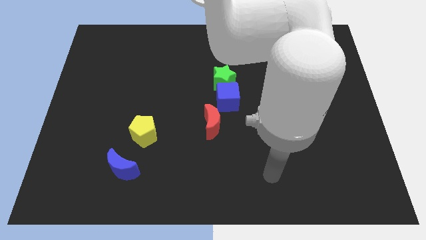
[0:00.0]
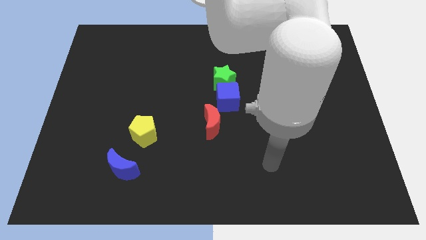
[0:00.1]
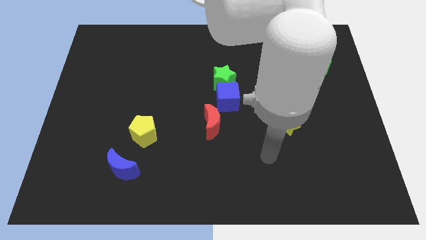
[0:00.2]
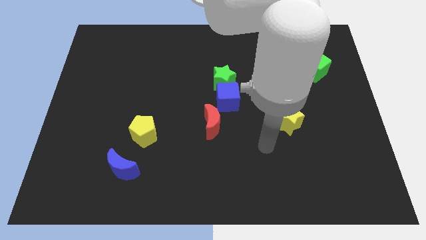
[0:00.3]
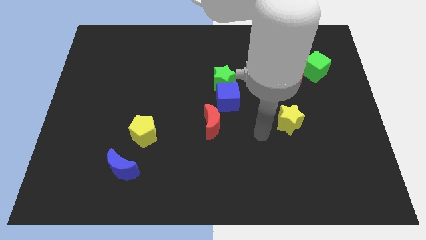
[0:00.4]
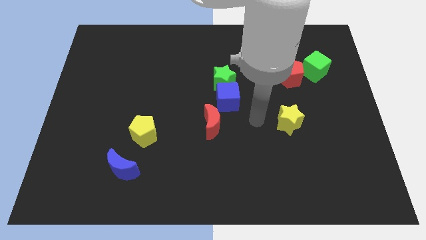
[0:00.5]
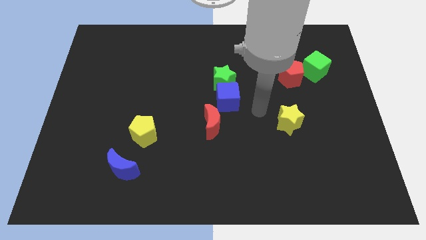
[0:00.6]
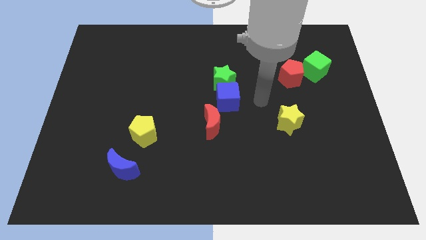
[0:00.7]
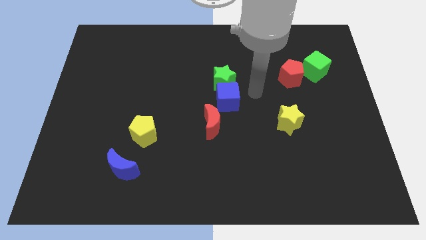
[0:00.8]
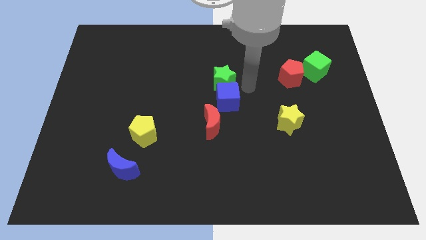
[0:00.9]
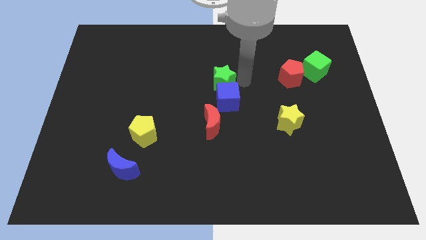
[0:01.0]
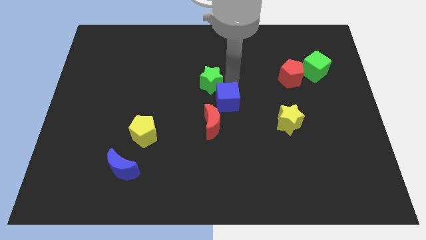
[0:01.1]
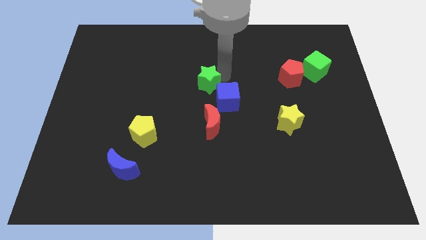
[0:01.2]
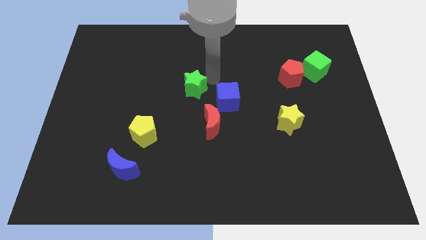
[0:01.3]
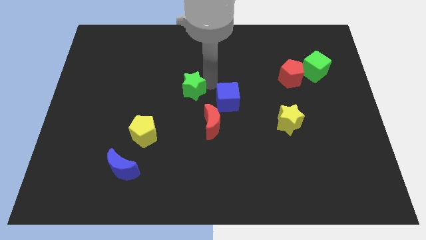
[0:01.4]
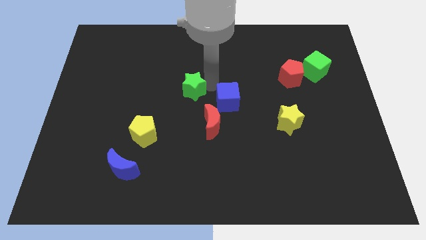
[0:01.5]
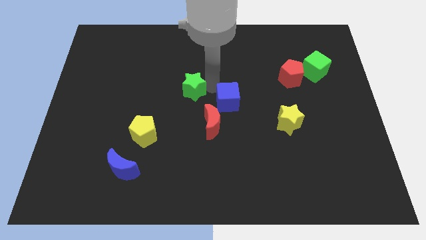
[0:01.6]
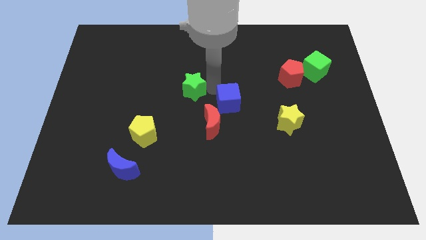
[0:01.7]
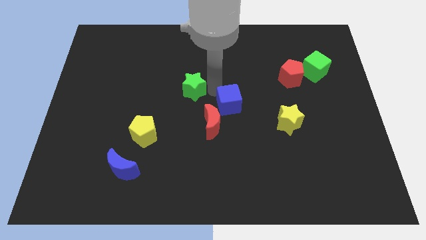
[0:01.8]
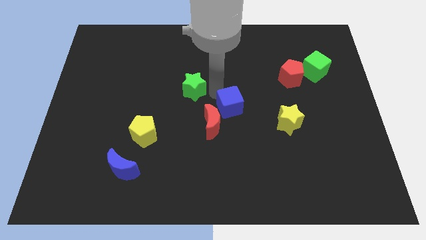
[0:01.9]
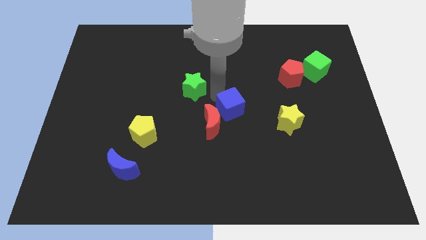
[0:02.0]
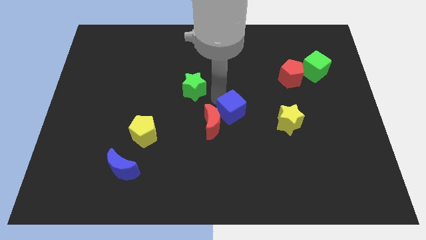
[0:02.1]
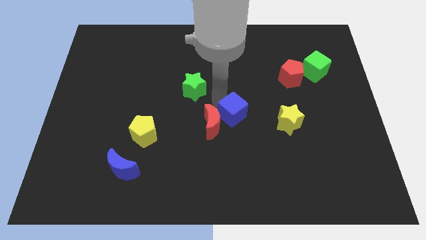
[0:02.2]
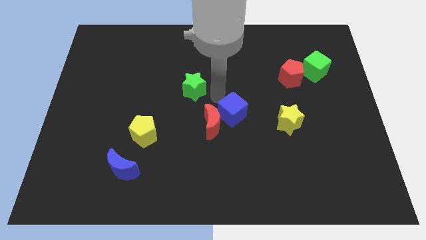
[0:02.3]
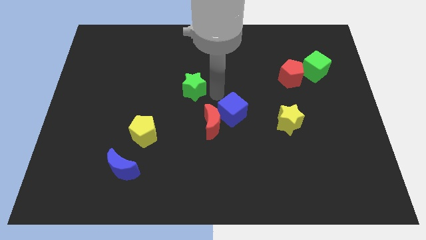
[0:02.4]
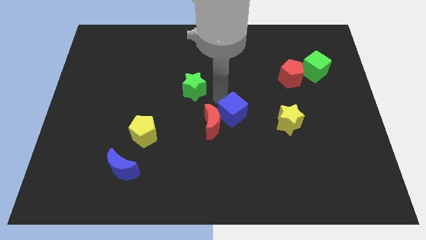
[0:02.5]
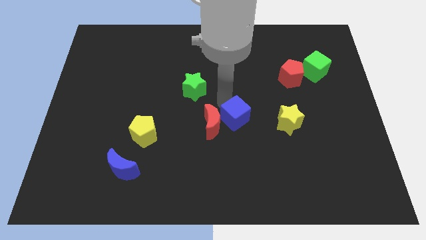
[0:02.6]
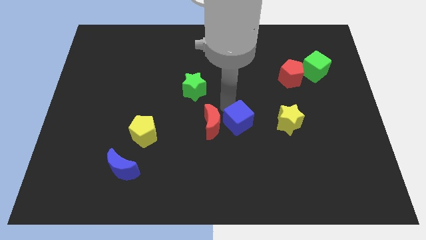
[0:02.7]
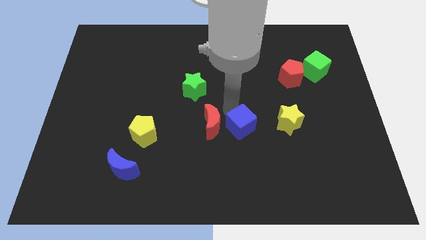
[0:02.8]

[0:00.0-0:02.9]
push the blue cube a little bit down and then right

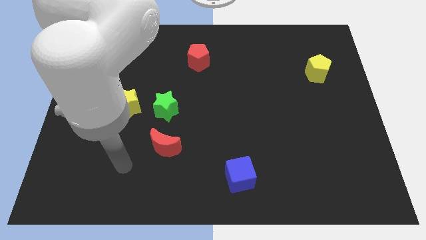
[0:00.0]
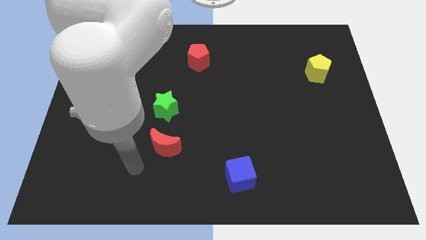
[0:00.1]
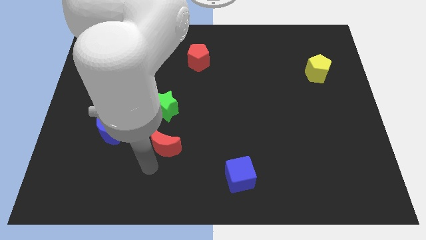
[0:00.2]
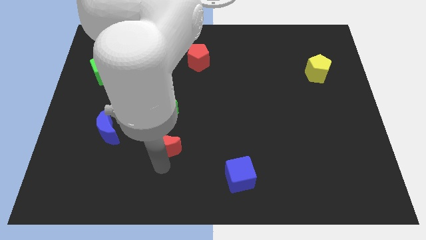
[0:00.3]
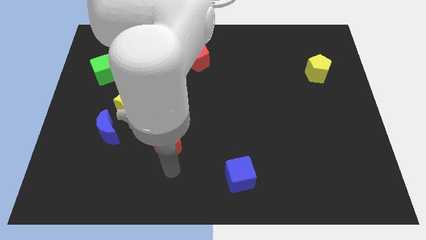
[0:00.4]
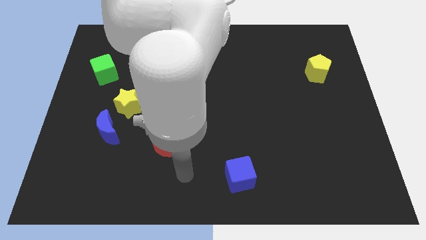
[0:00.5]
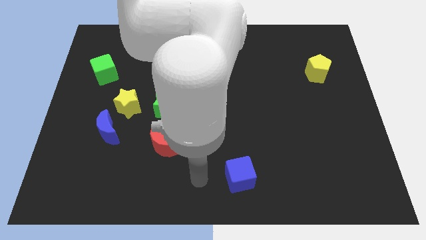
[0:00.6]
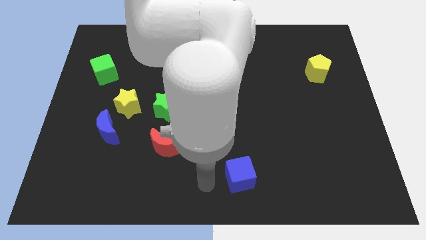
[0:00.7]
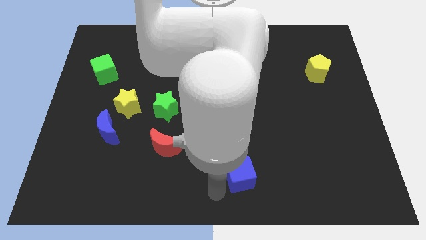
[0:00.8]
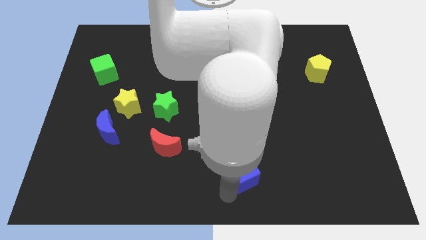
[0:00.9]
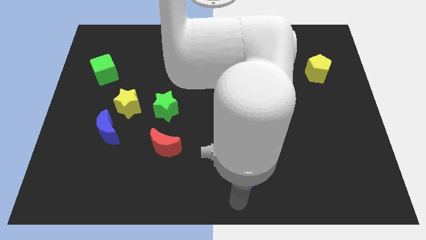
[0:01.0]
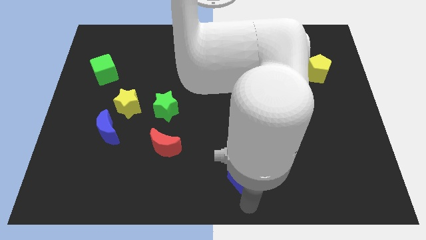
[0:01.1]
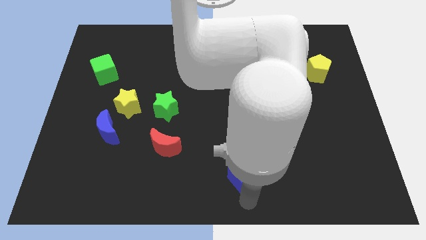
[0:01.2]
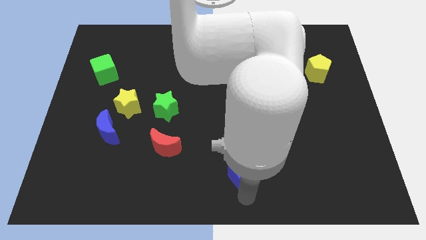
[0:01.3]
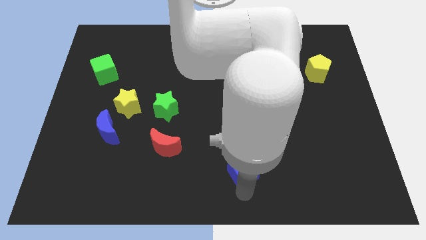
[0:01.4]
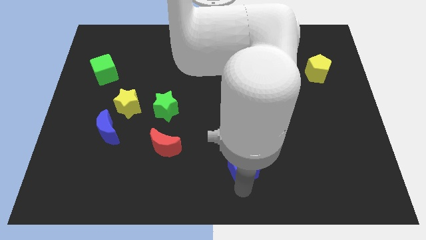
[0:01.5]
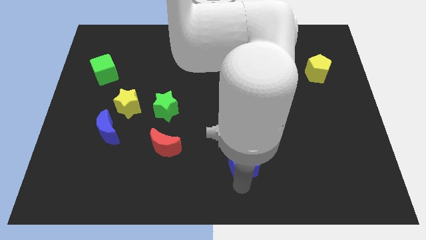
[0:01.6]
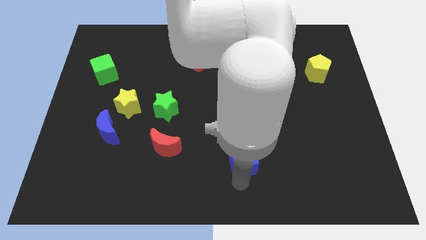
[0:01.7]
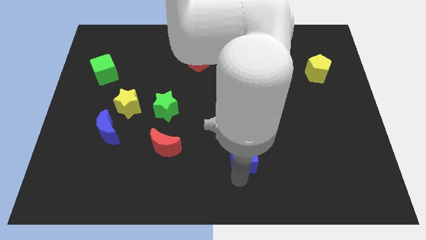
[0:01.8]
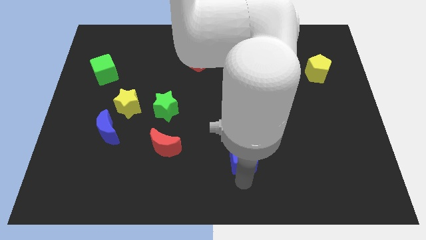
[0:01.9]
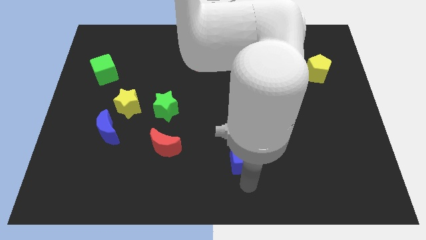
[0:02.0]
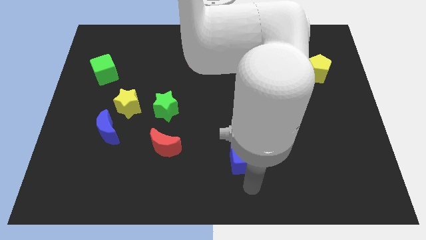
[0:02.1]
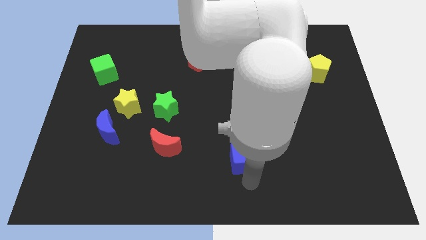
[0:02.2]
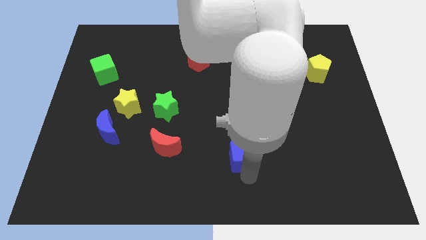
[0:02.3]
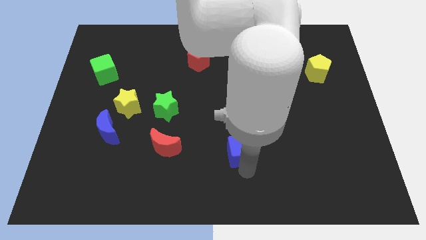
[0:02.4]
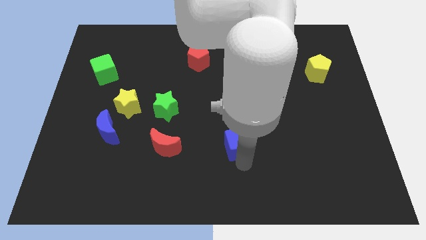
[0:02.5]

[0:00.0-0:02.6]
slide the blue cube a little upwards

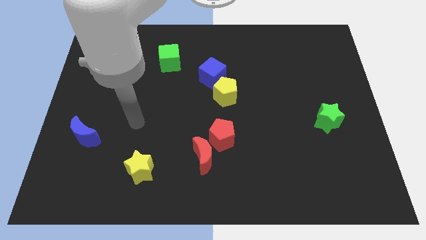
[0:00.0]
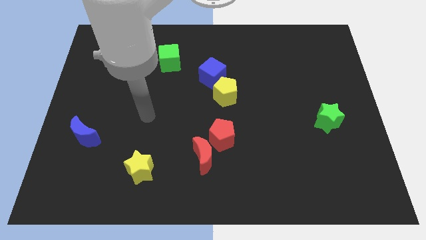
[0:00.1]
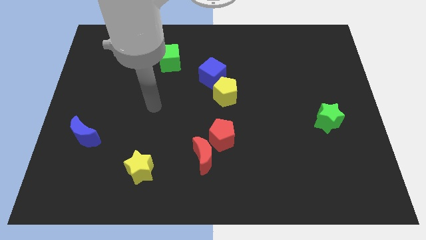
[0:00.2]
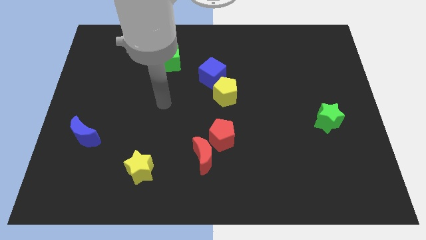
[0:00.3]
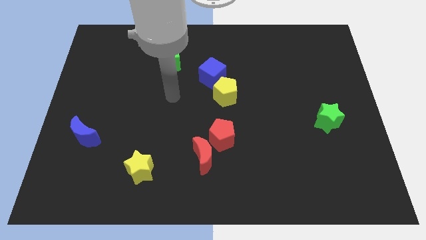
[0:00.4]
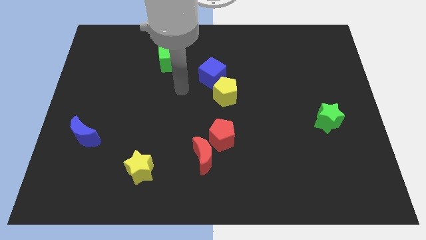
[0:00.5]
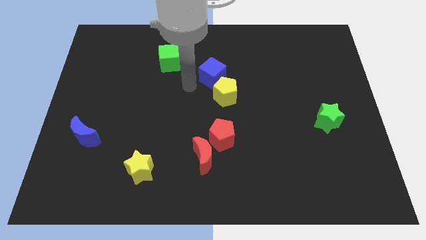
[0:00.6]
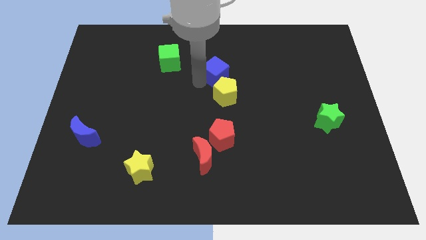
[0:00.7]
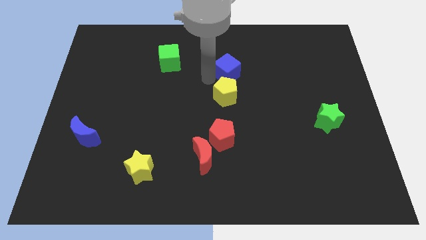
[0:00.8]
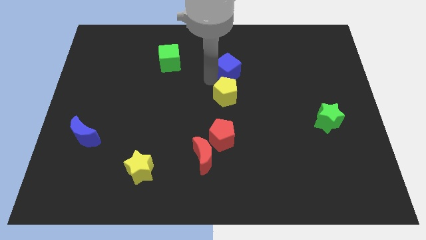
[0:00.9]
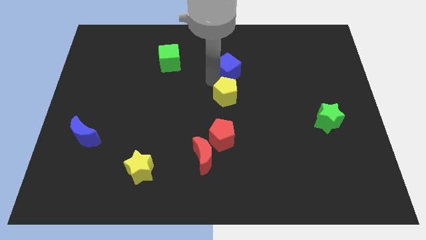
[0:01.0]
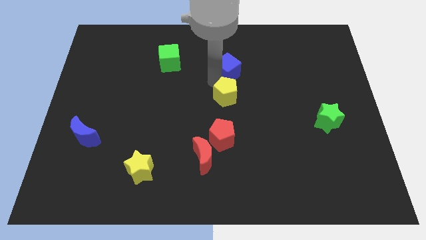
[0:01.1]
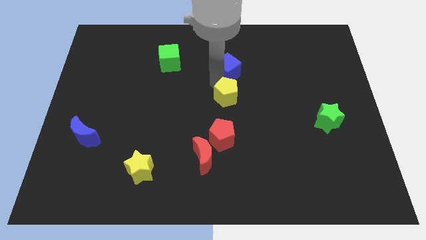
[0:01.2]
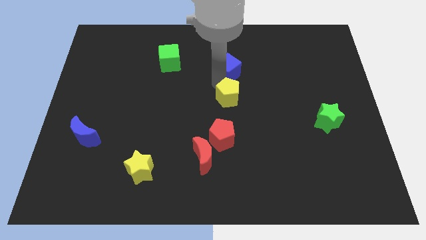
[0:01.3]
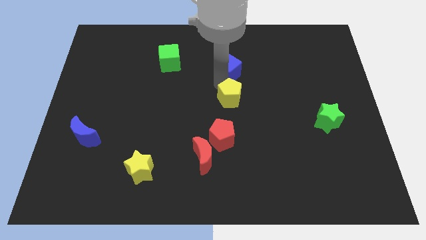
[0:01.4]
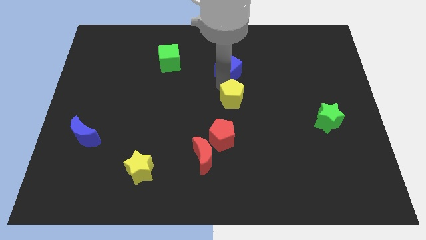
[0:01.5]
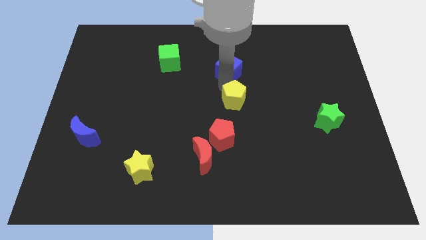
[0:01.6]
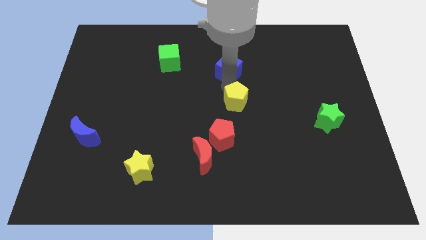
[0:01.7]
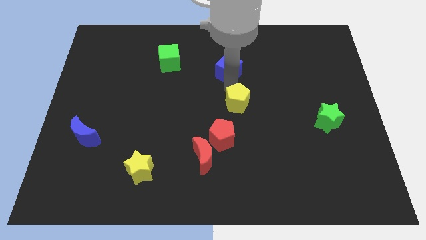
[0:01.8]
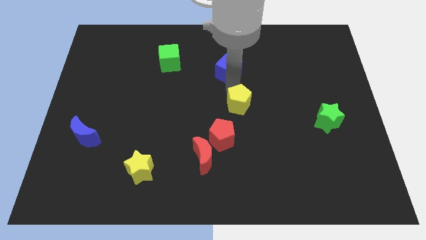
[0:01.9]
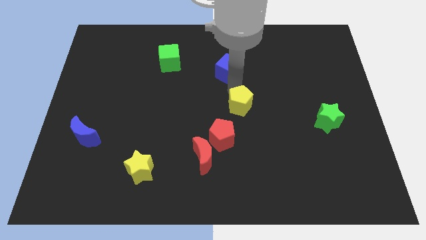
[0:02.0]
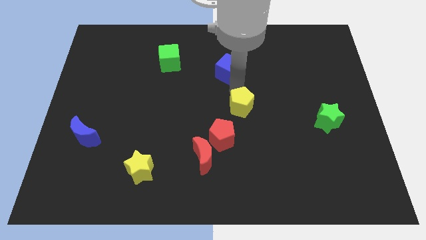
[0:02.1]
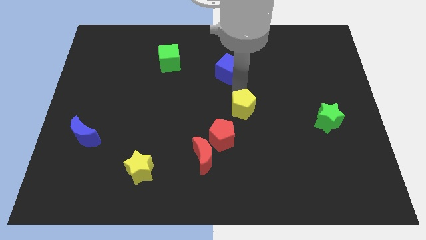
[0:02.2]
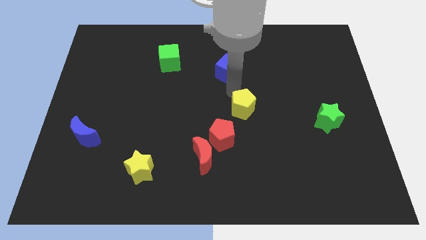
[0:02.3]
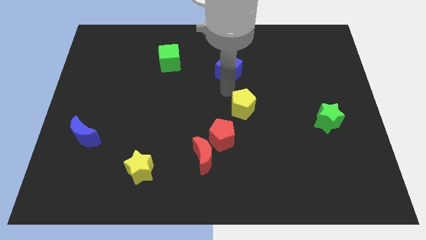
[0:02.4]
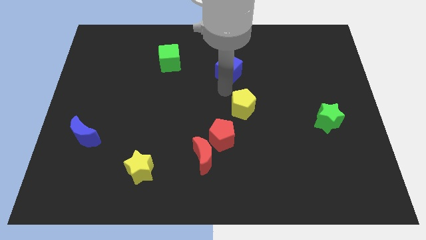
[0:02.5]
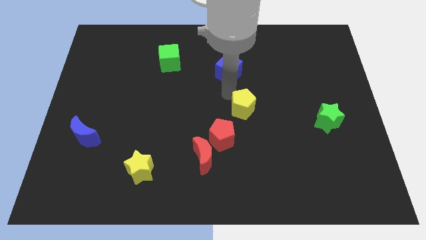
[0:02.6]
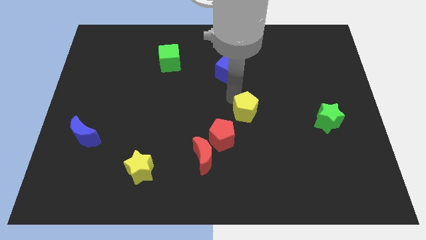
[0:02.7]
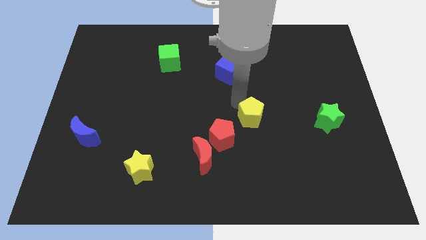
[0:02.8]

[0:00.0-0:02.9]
slightly push the yellow pentagon diagonally down and to the right
